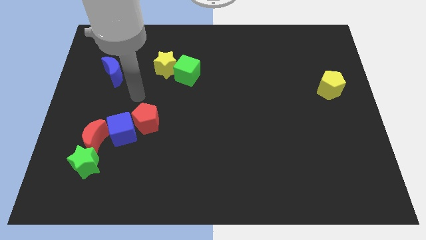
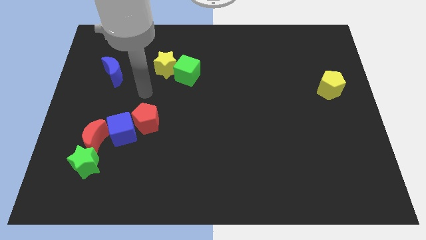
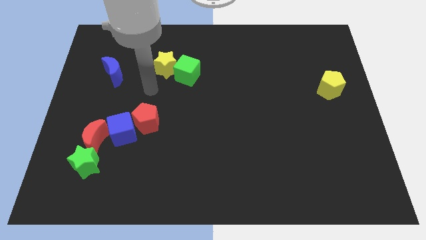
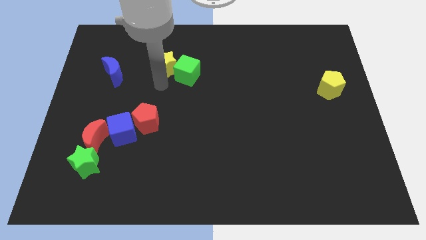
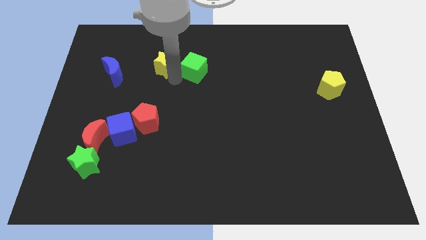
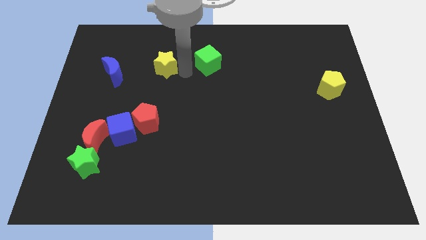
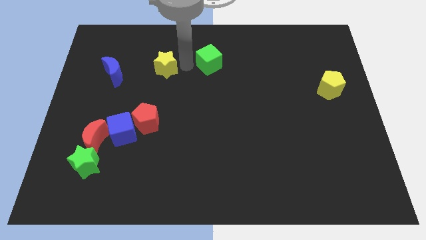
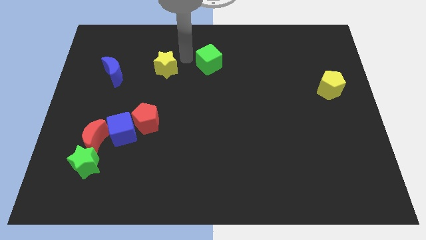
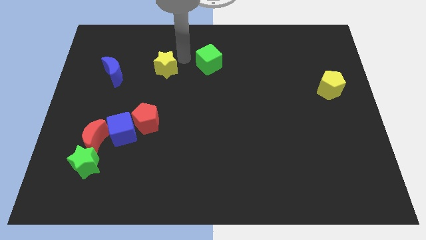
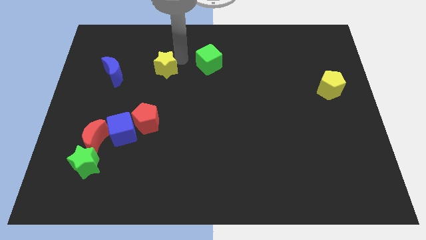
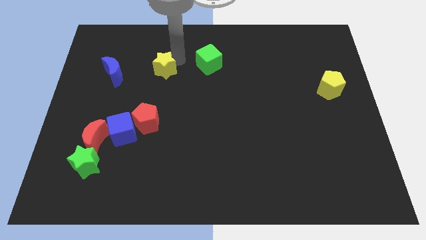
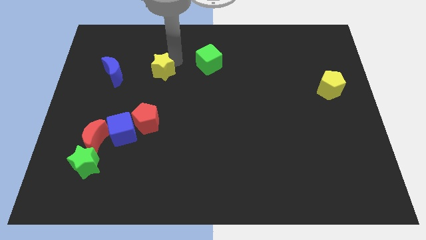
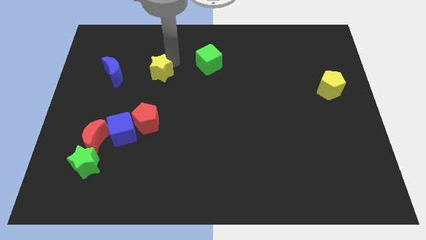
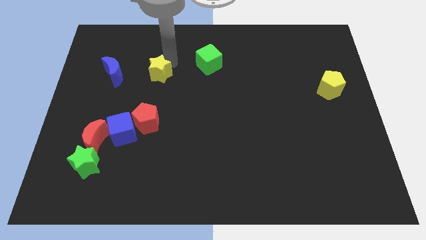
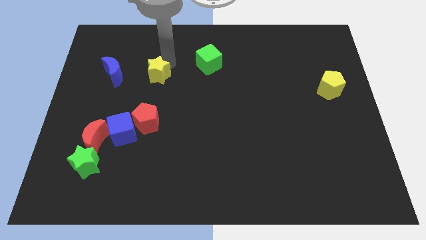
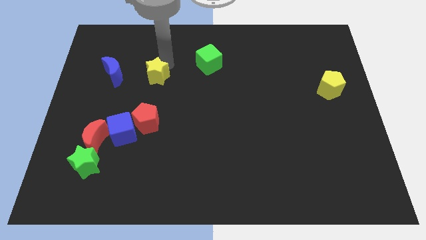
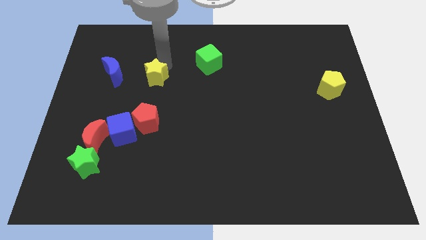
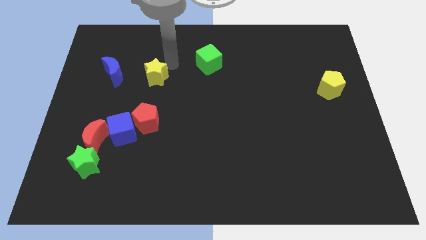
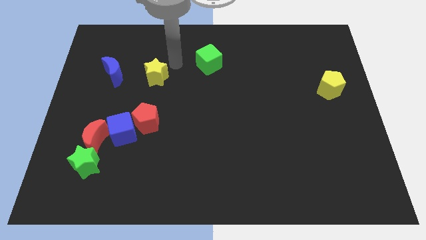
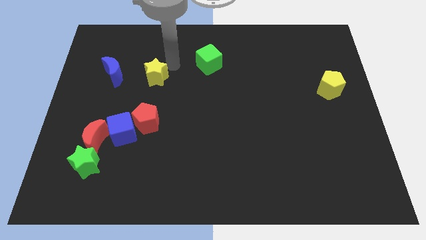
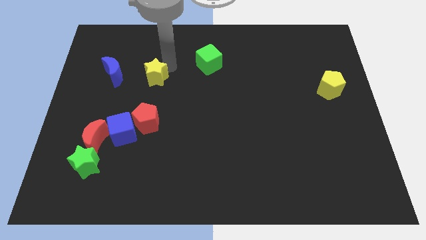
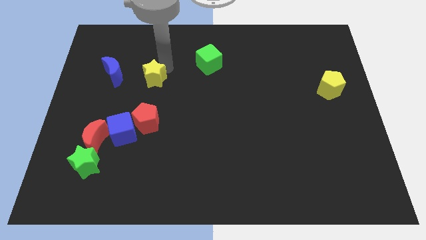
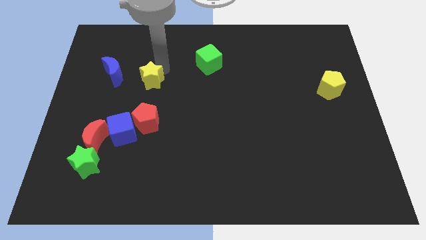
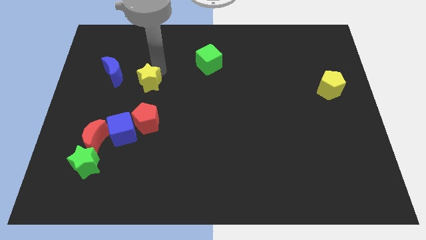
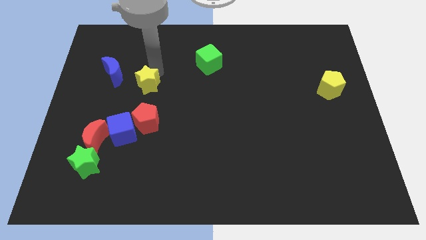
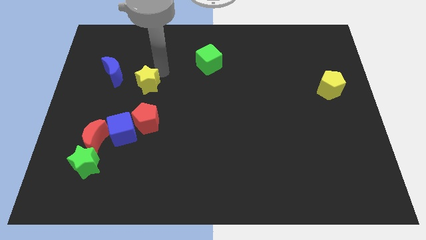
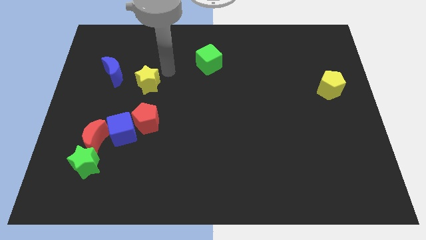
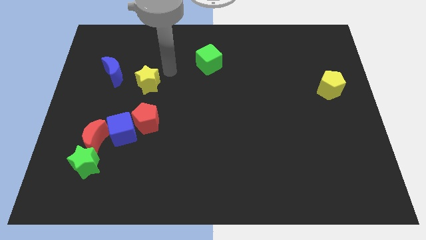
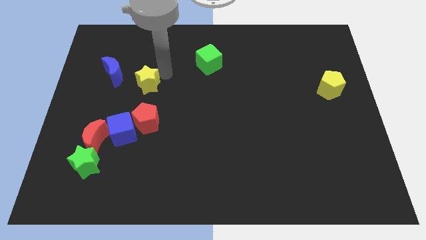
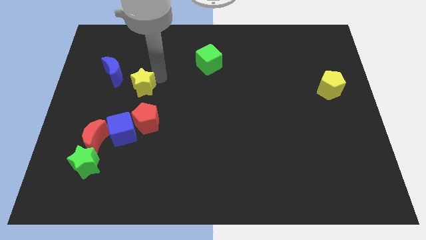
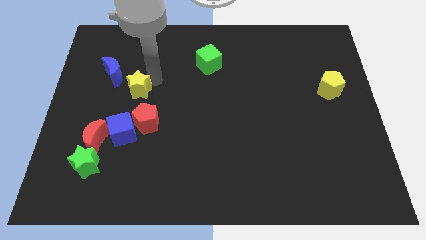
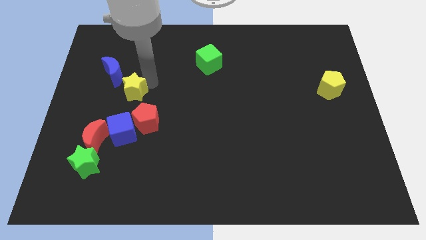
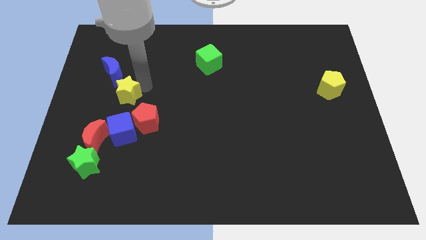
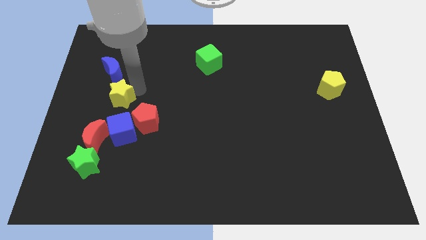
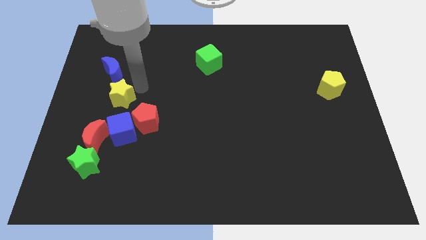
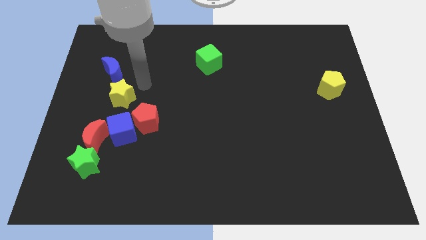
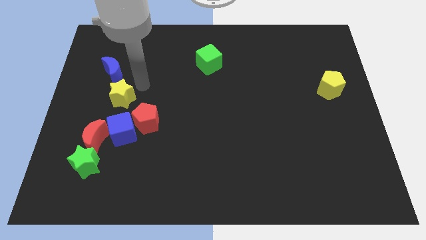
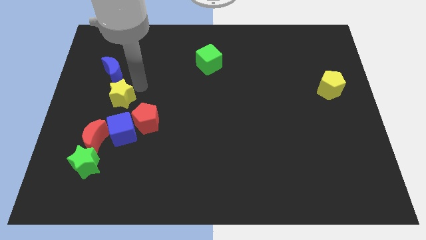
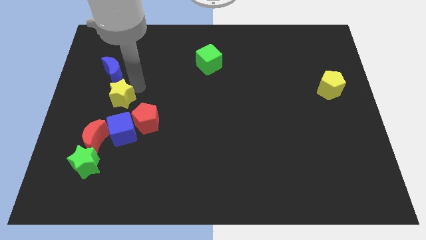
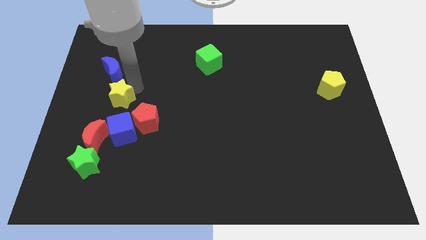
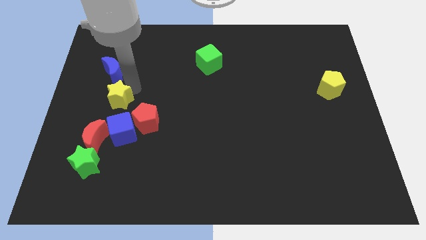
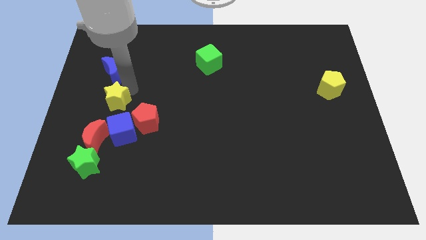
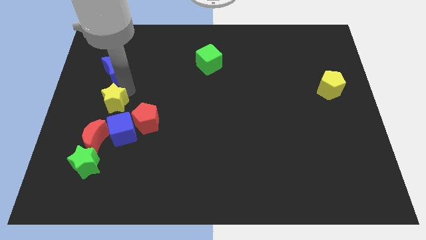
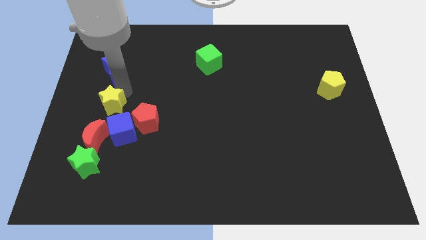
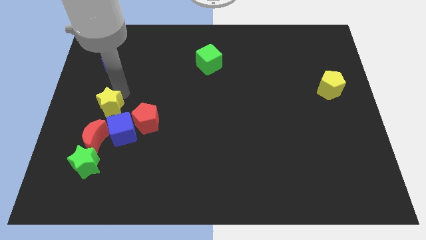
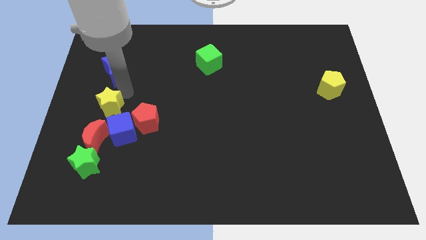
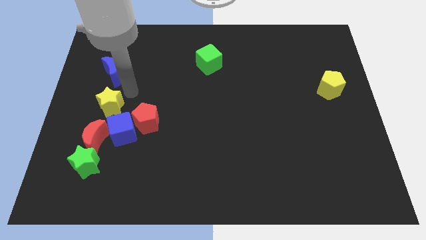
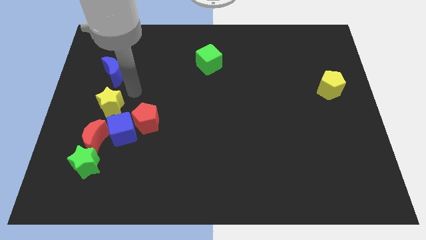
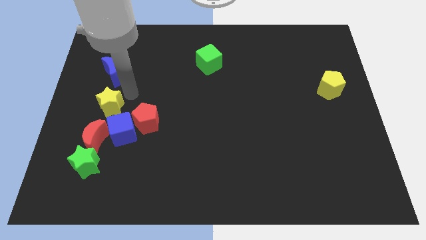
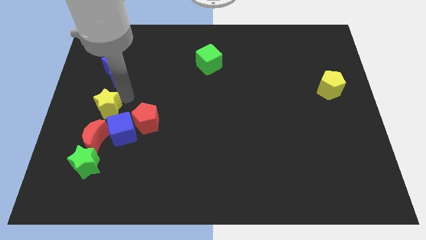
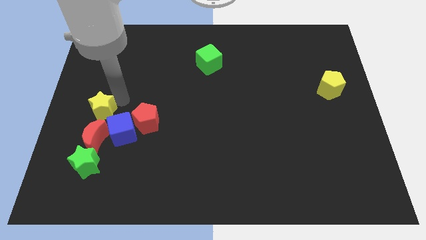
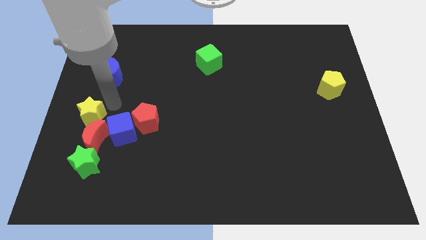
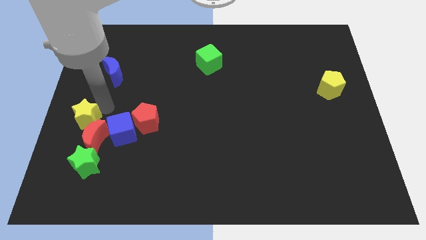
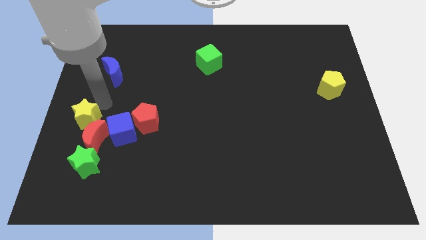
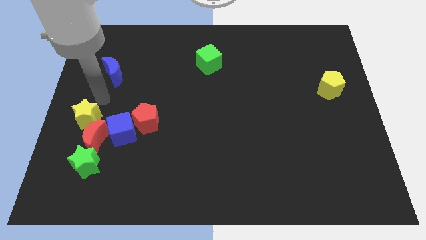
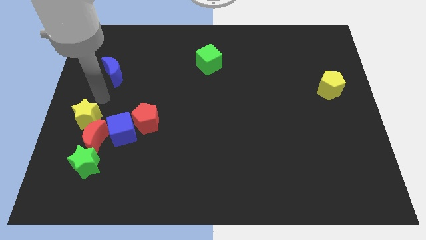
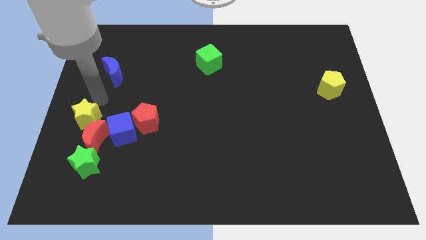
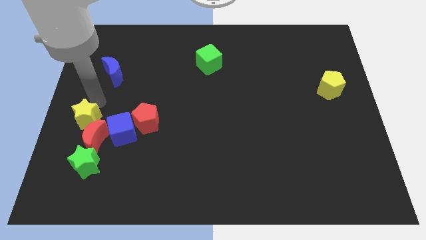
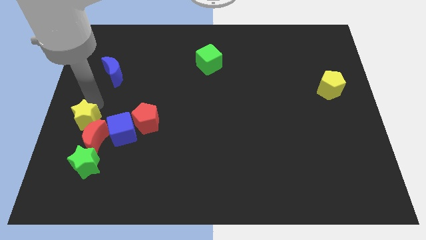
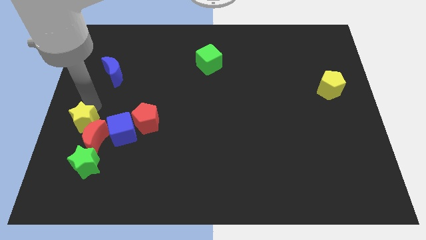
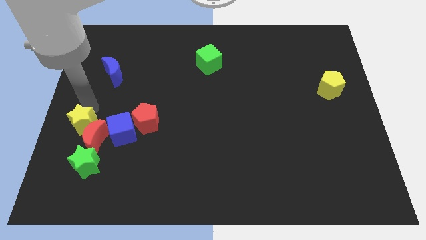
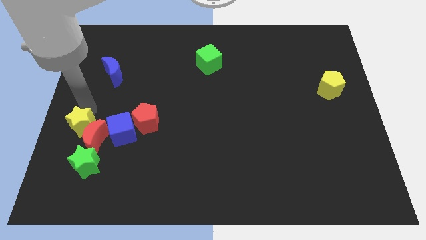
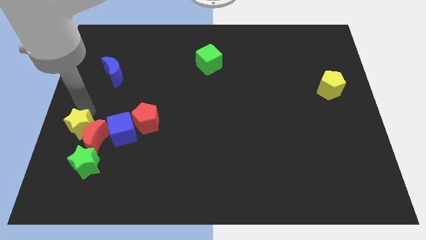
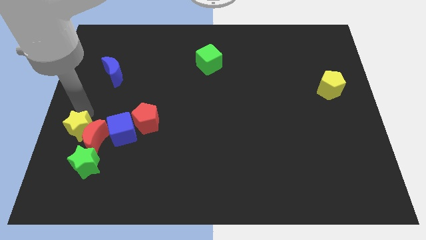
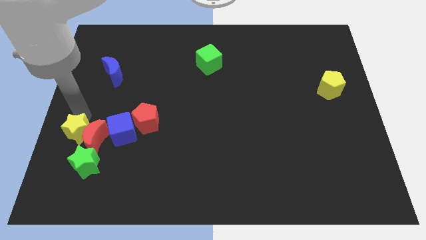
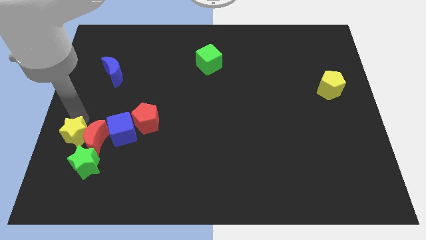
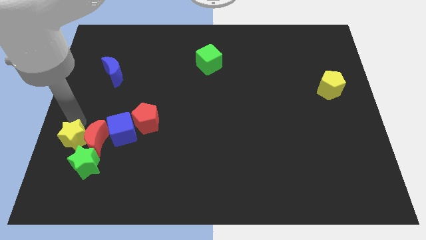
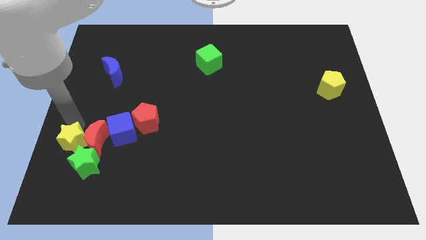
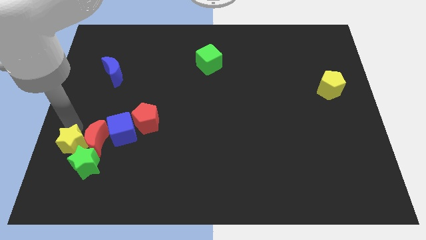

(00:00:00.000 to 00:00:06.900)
slide the yellow star close to the green star

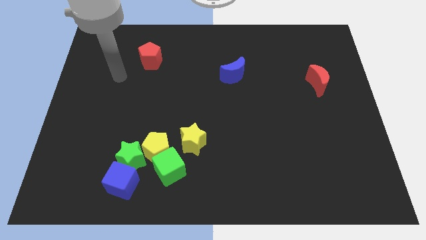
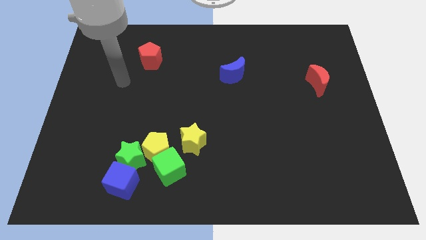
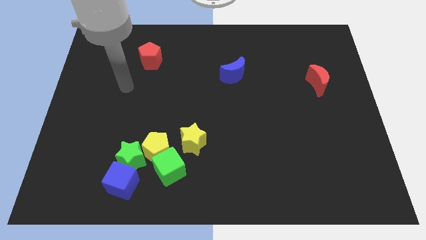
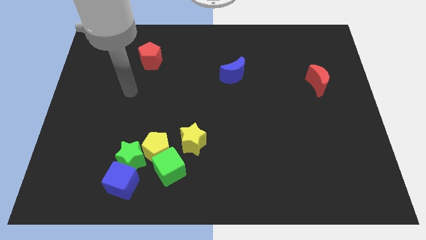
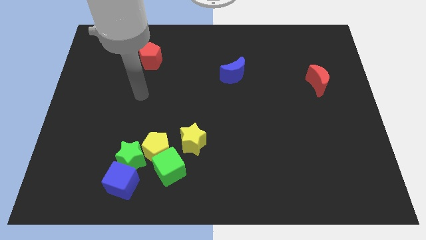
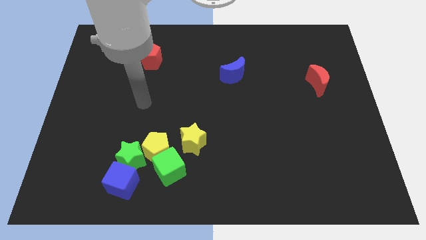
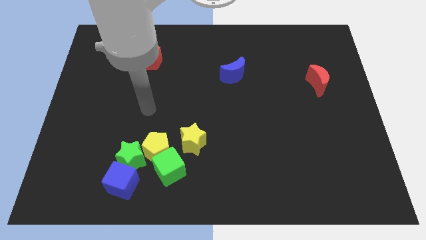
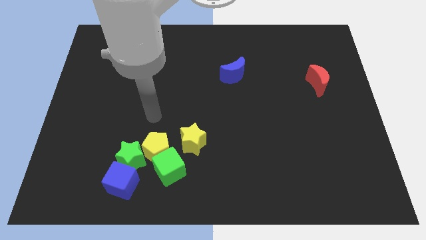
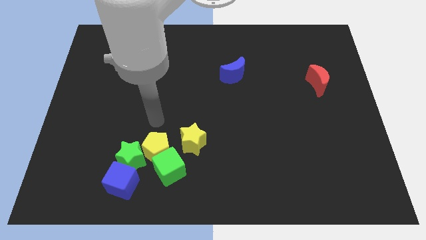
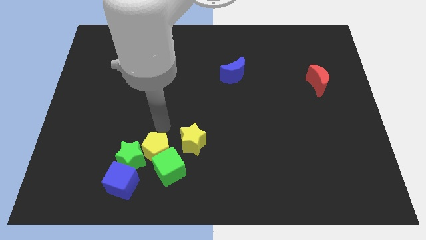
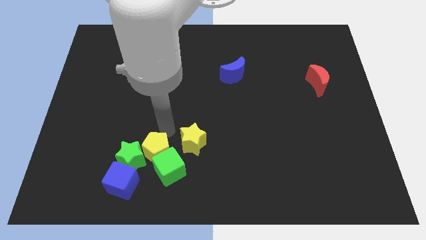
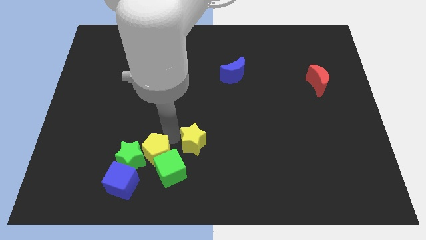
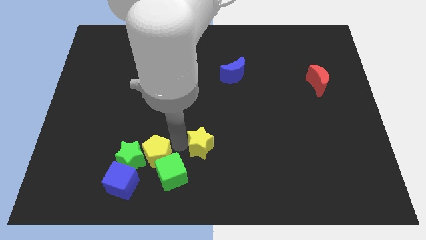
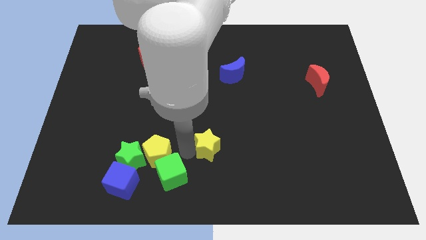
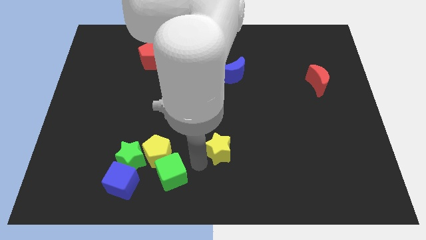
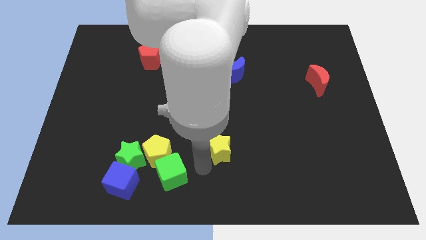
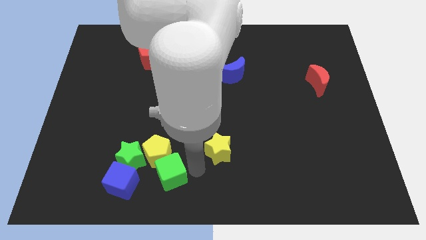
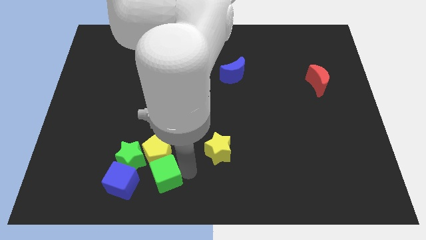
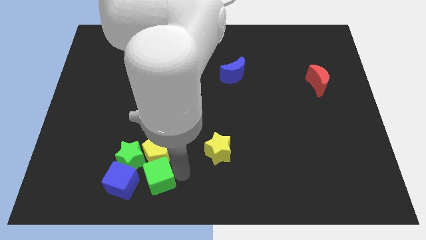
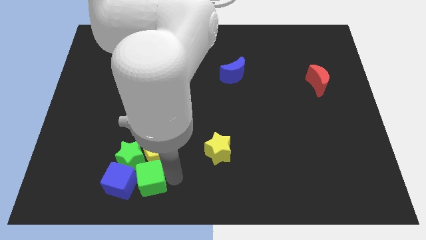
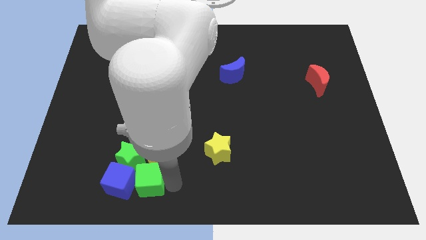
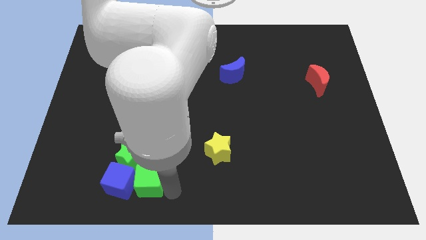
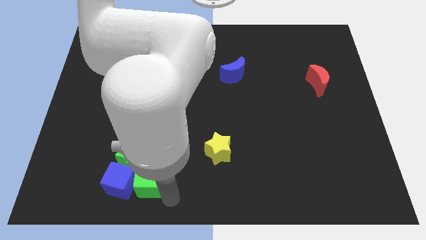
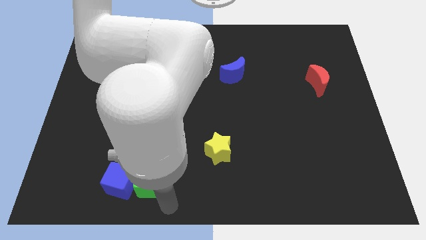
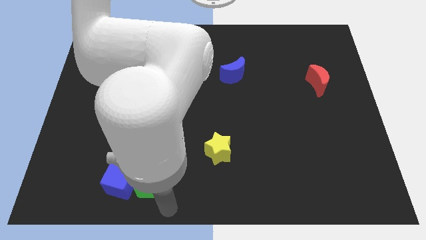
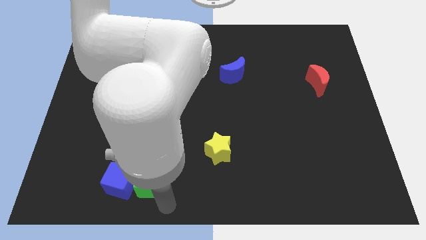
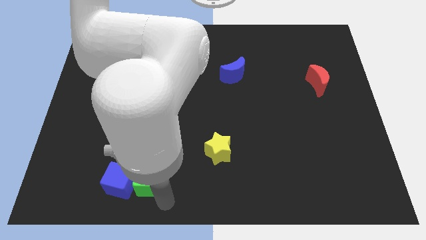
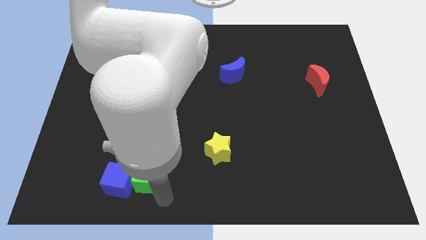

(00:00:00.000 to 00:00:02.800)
move the green cube close to the green star
